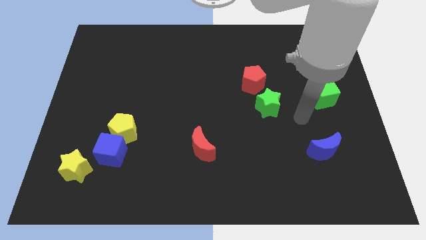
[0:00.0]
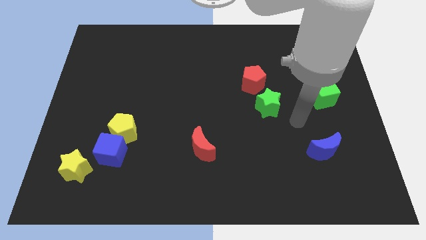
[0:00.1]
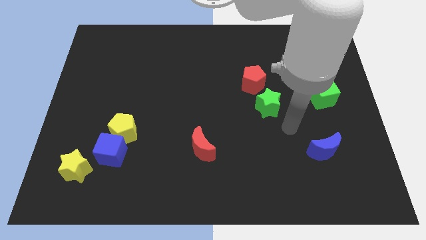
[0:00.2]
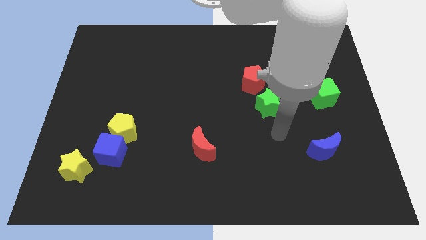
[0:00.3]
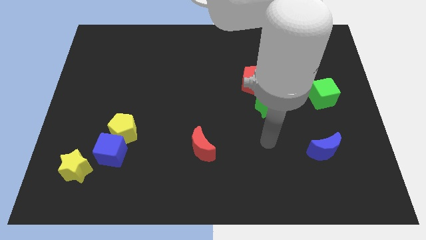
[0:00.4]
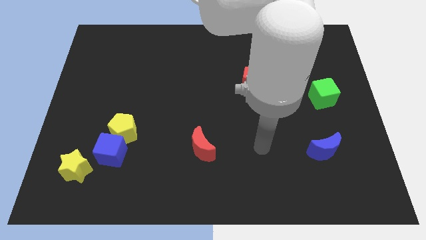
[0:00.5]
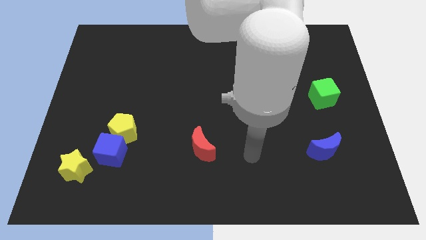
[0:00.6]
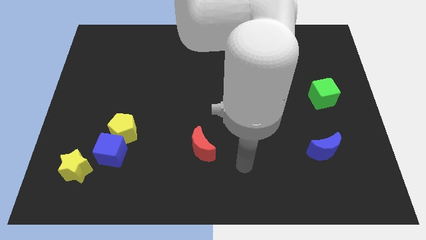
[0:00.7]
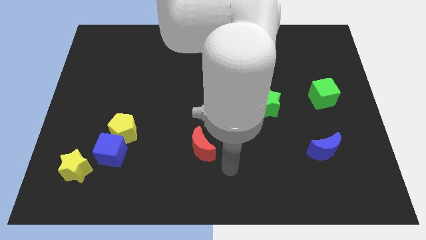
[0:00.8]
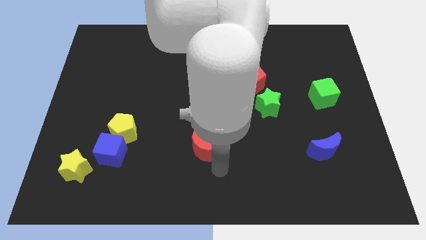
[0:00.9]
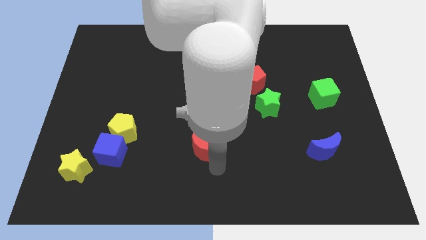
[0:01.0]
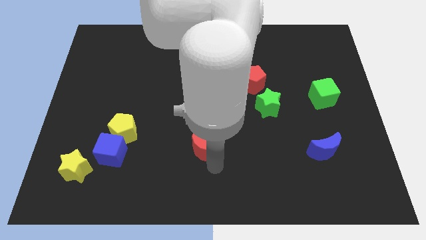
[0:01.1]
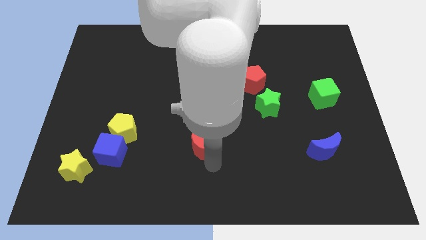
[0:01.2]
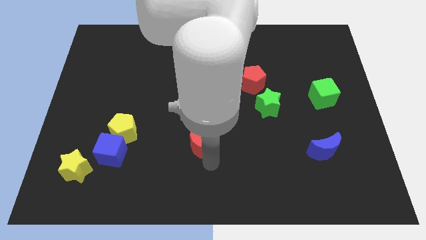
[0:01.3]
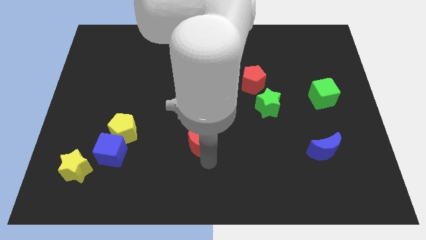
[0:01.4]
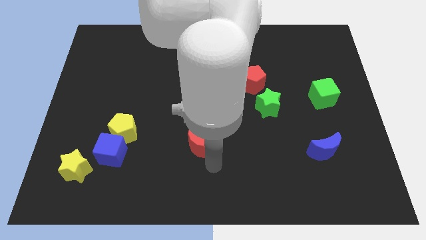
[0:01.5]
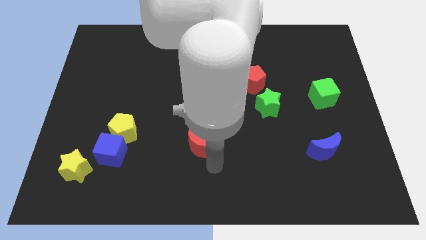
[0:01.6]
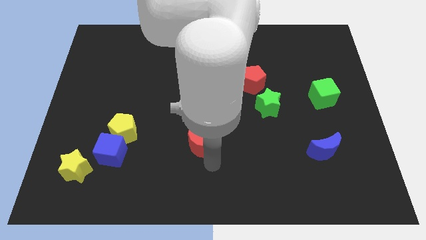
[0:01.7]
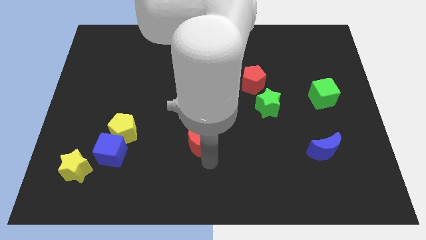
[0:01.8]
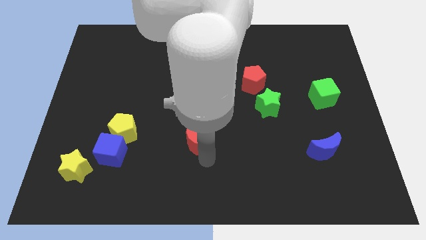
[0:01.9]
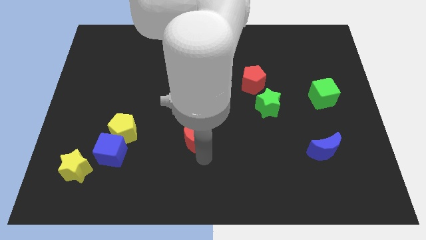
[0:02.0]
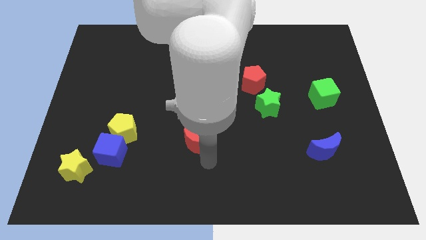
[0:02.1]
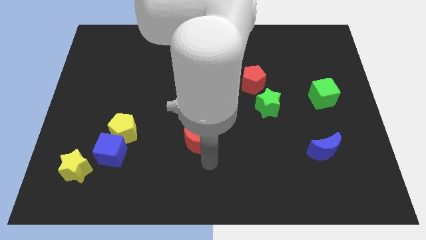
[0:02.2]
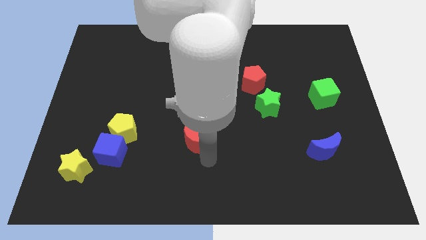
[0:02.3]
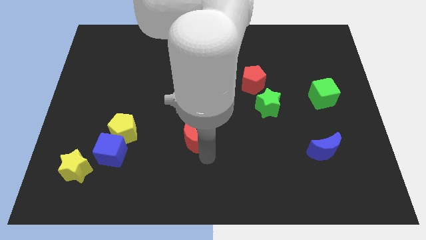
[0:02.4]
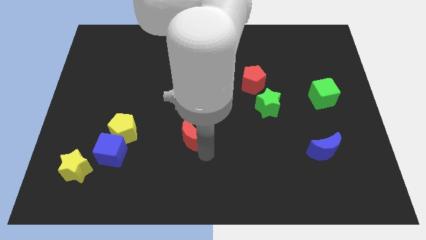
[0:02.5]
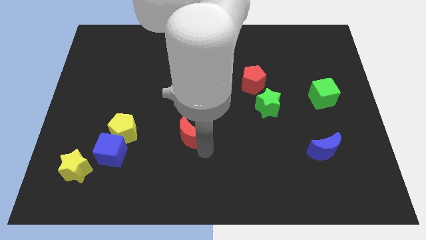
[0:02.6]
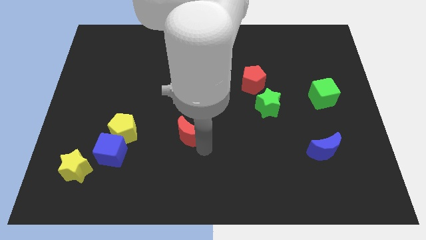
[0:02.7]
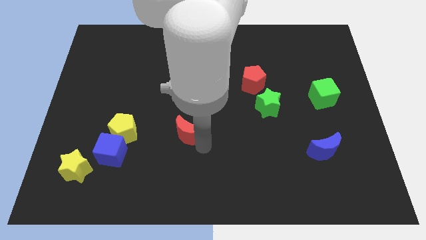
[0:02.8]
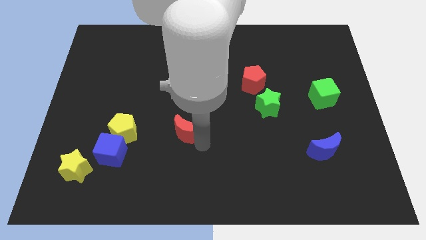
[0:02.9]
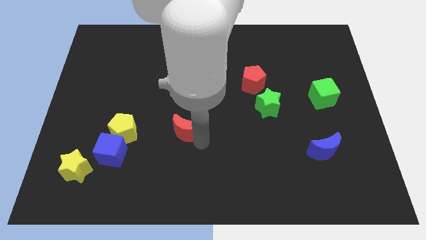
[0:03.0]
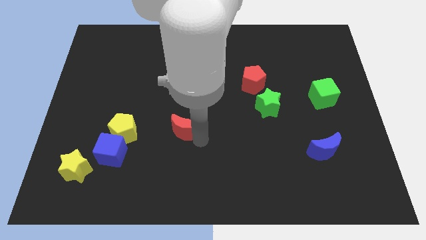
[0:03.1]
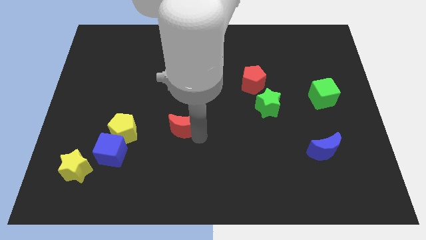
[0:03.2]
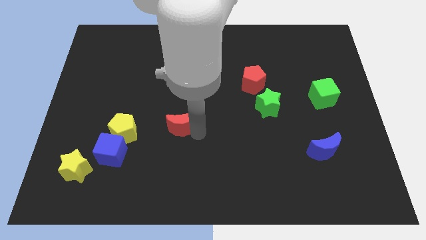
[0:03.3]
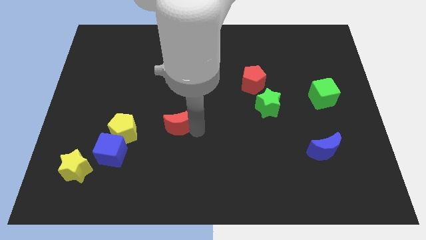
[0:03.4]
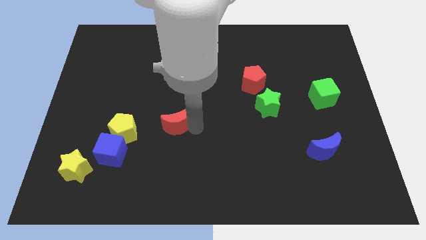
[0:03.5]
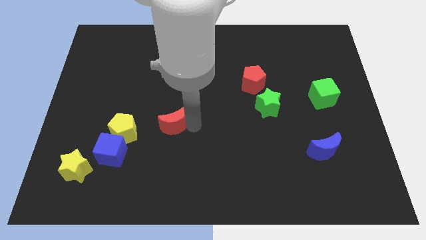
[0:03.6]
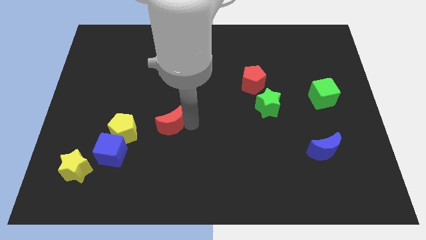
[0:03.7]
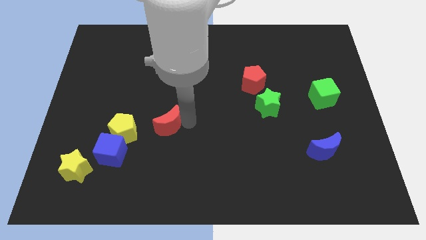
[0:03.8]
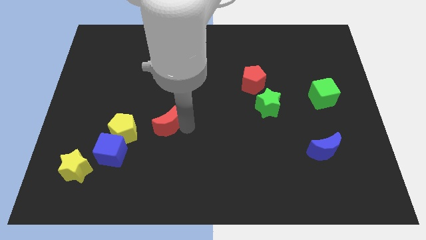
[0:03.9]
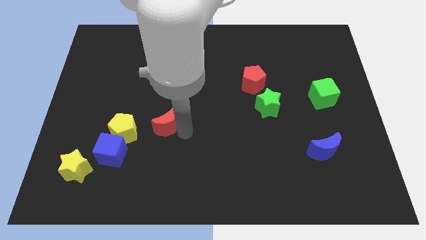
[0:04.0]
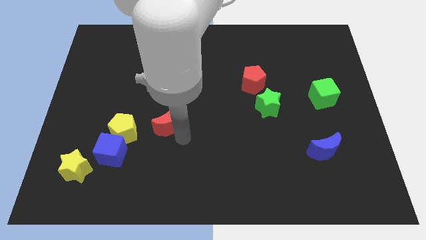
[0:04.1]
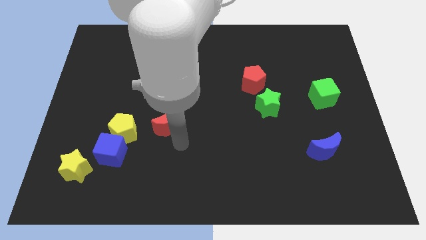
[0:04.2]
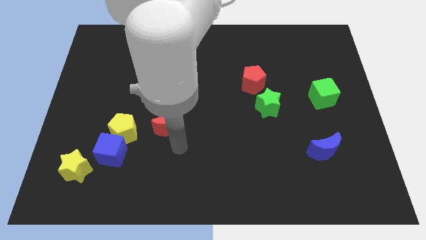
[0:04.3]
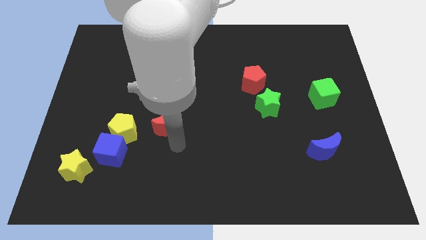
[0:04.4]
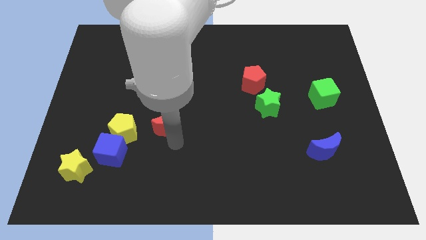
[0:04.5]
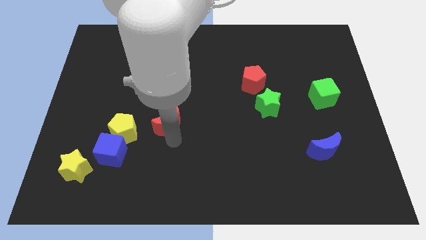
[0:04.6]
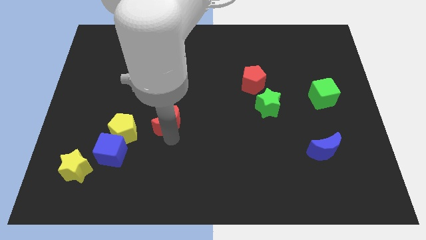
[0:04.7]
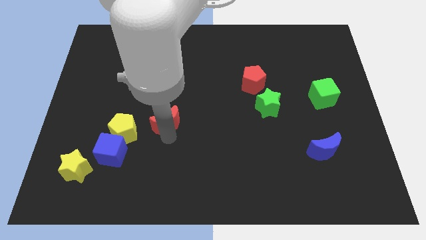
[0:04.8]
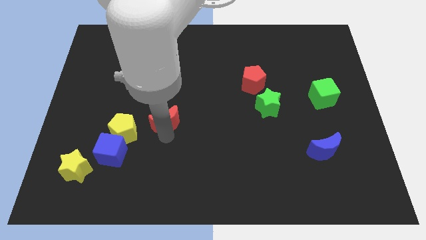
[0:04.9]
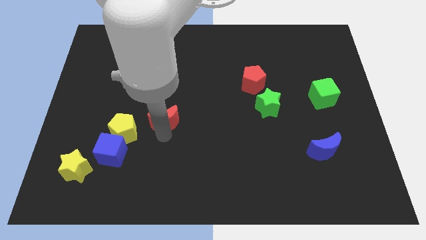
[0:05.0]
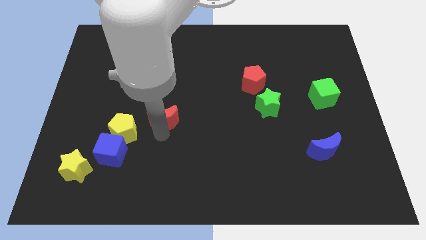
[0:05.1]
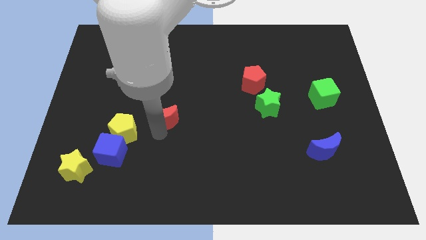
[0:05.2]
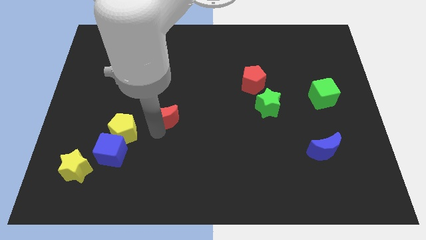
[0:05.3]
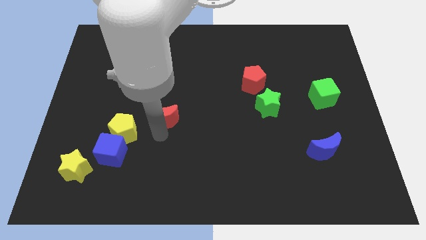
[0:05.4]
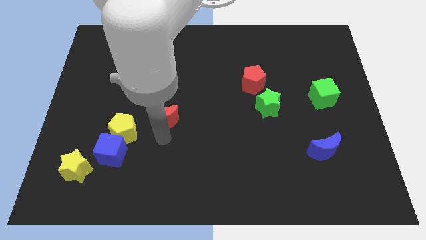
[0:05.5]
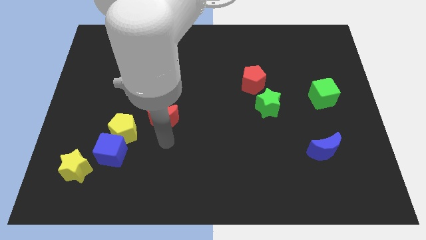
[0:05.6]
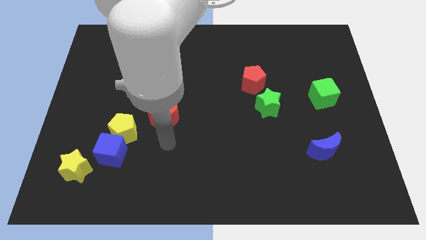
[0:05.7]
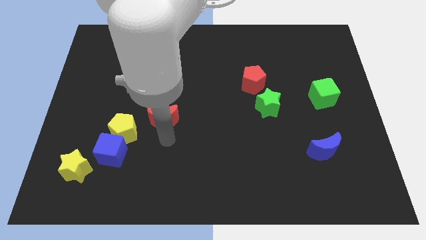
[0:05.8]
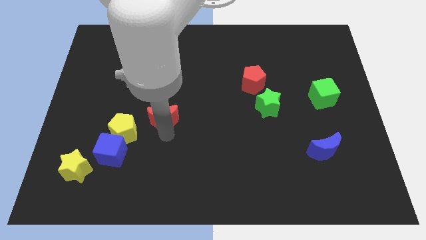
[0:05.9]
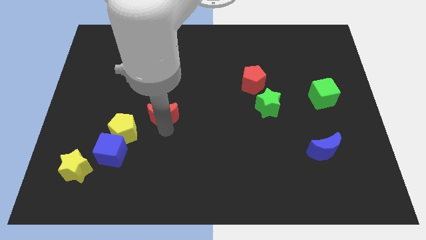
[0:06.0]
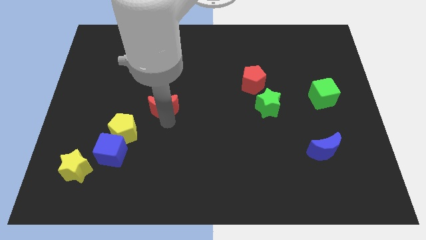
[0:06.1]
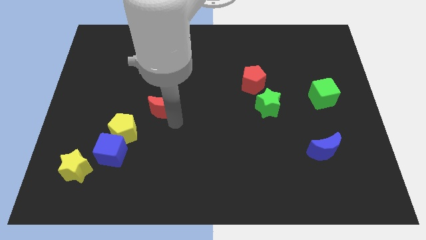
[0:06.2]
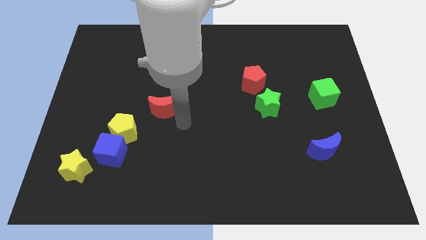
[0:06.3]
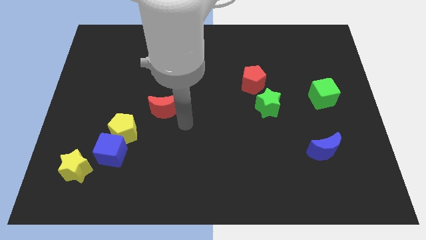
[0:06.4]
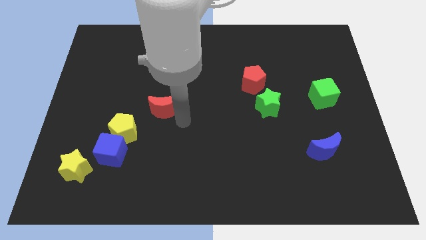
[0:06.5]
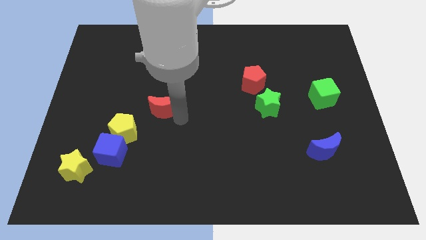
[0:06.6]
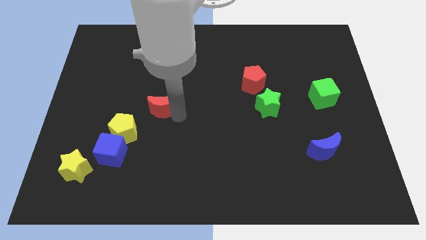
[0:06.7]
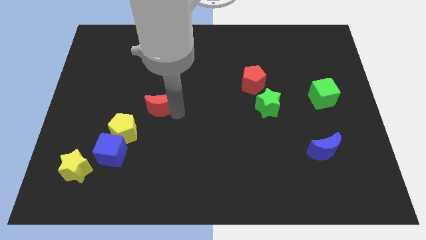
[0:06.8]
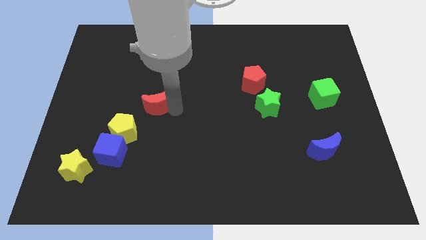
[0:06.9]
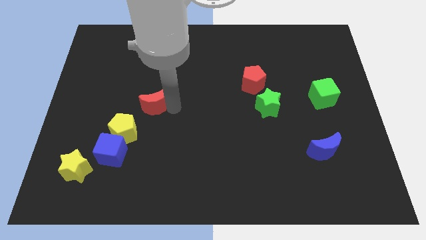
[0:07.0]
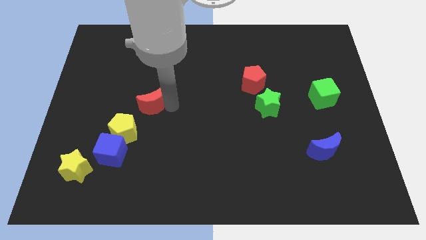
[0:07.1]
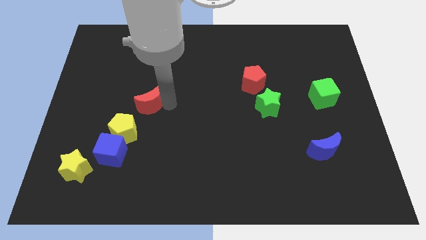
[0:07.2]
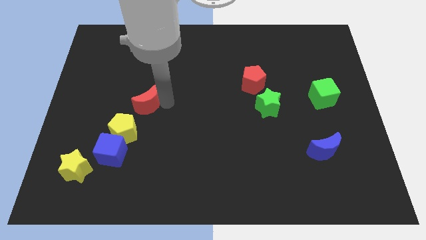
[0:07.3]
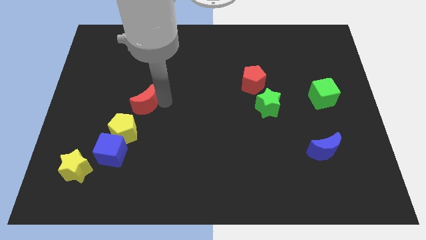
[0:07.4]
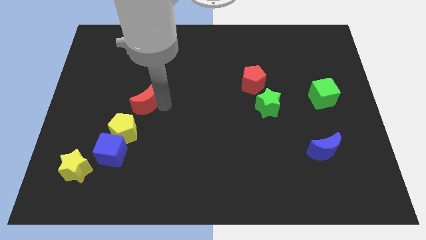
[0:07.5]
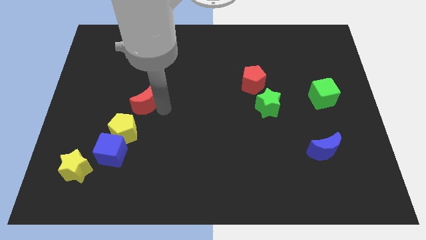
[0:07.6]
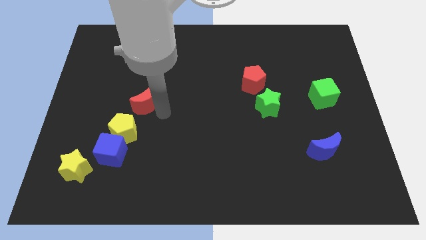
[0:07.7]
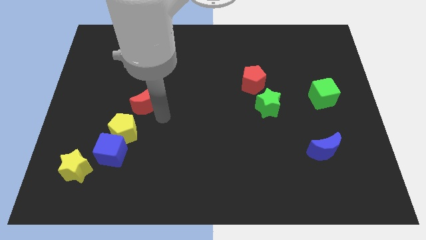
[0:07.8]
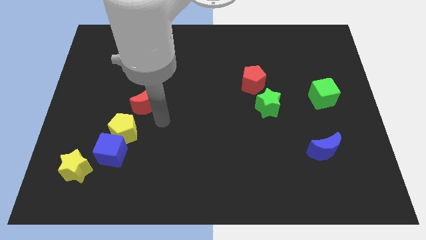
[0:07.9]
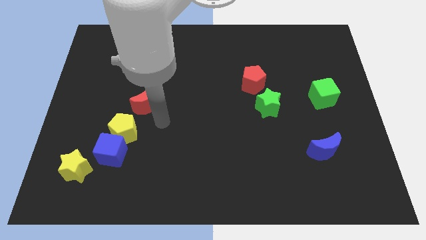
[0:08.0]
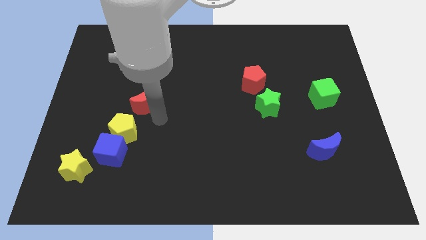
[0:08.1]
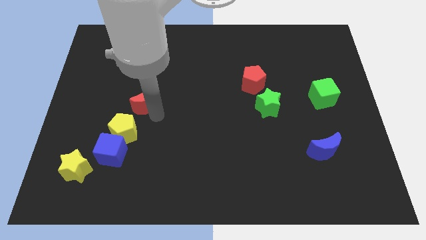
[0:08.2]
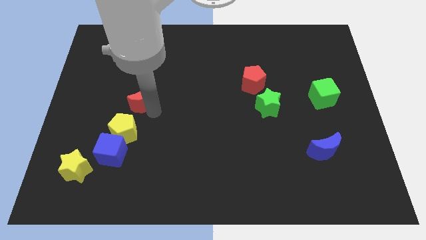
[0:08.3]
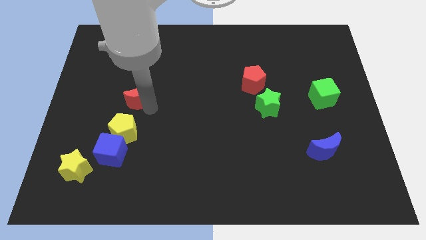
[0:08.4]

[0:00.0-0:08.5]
slide the red moon upwards and then to the left
